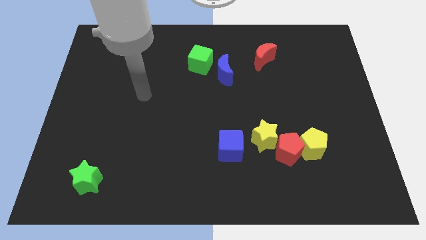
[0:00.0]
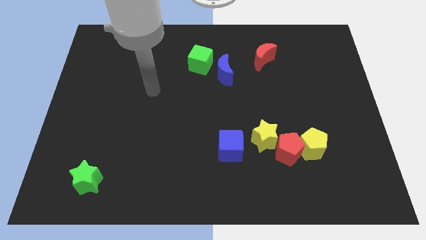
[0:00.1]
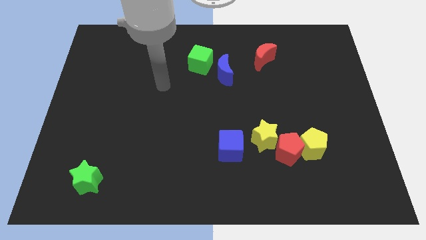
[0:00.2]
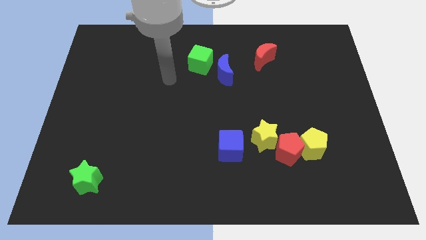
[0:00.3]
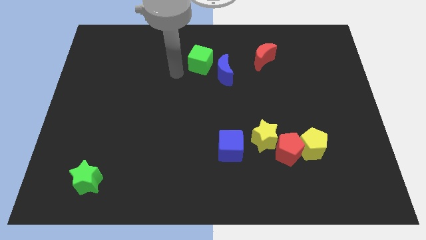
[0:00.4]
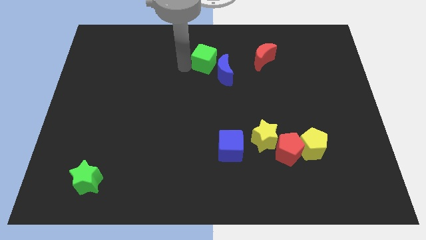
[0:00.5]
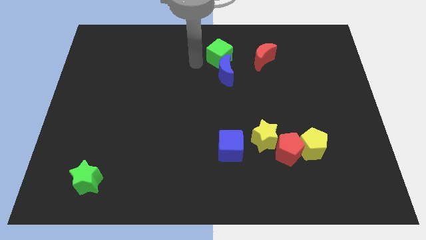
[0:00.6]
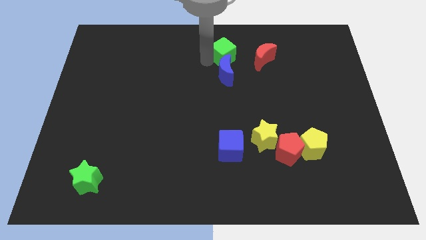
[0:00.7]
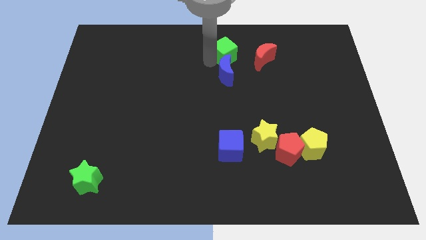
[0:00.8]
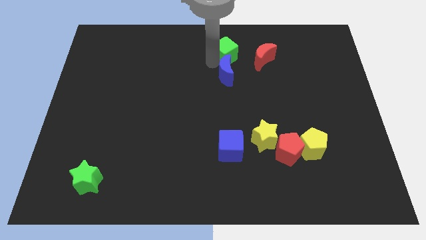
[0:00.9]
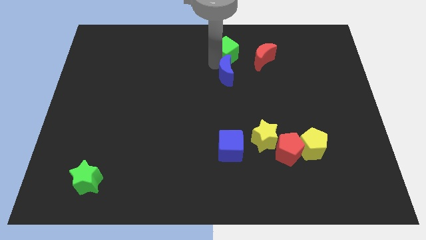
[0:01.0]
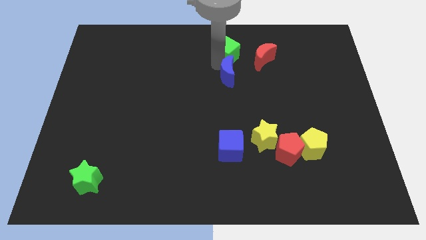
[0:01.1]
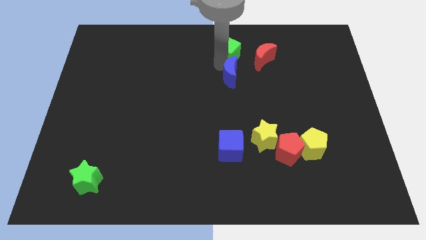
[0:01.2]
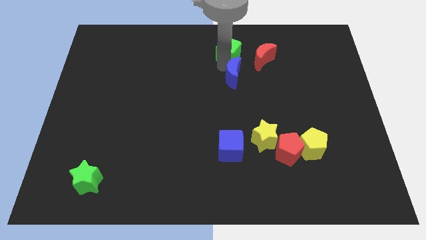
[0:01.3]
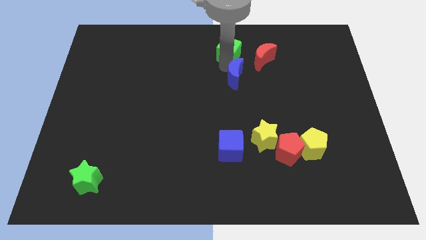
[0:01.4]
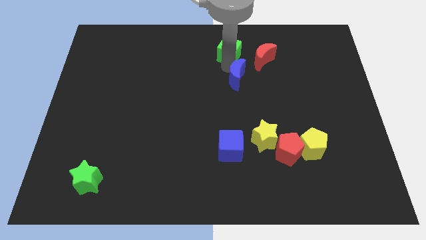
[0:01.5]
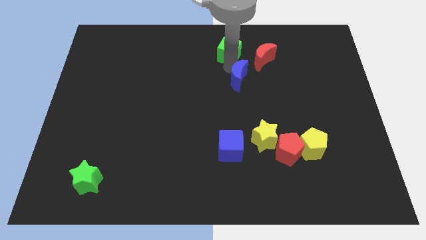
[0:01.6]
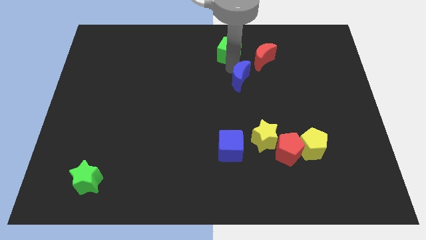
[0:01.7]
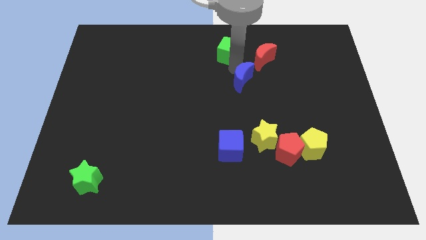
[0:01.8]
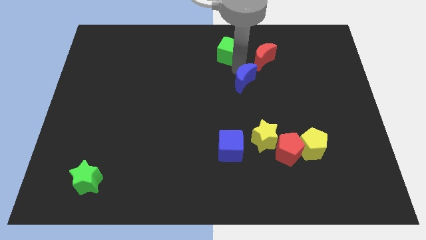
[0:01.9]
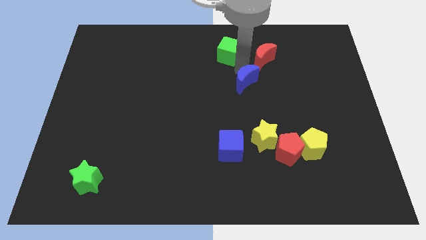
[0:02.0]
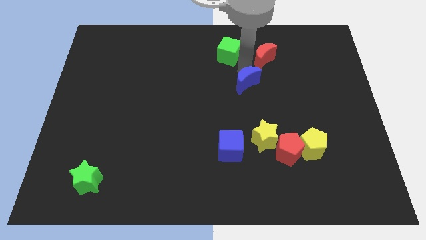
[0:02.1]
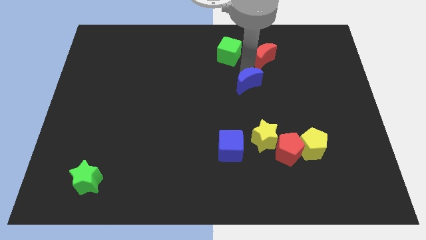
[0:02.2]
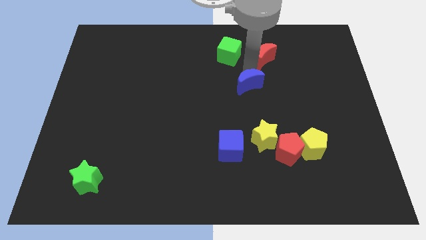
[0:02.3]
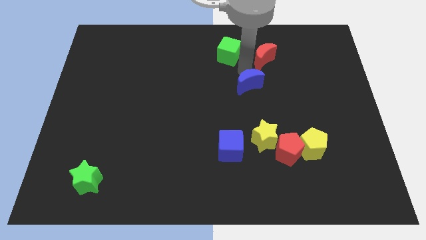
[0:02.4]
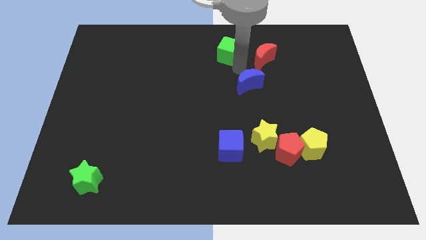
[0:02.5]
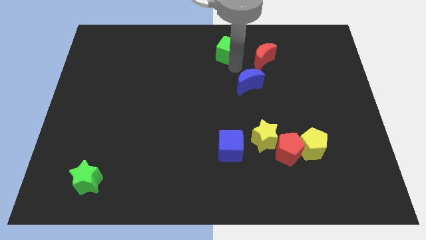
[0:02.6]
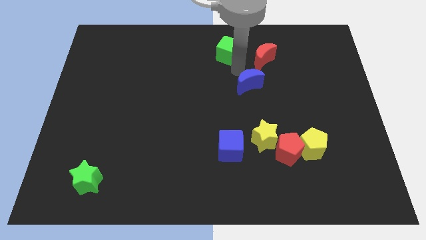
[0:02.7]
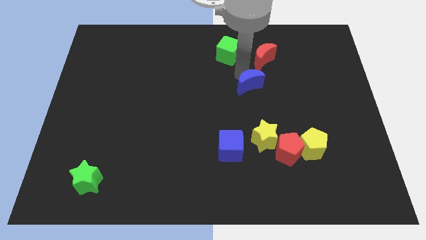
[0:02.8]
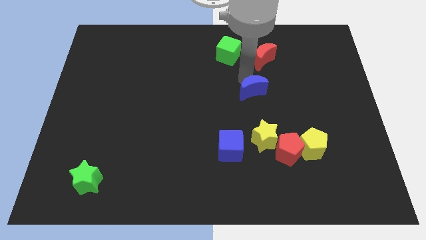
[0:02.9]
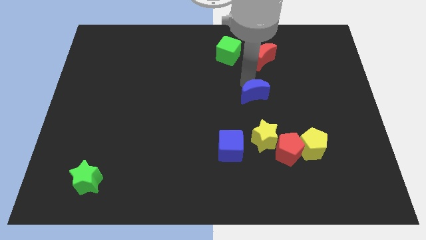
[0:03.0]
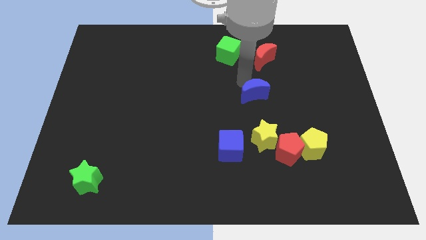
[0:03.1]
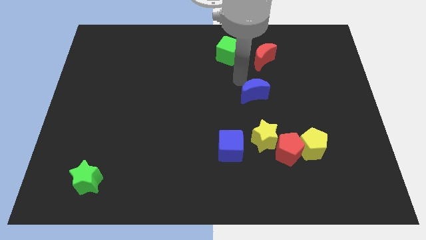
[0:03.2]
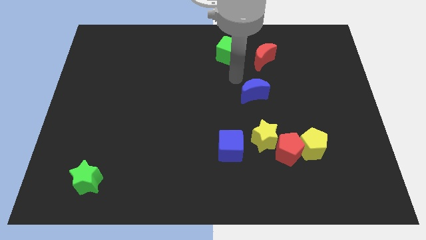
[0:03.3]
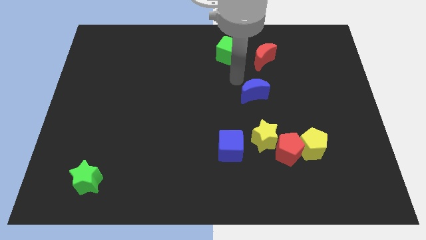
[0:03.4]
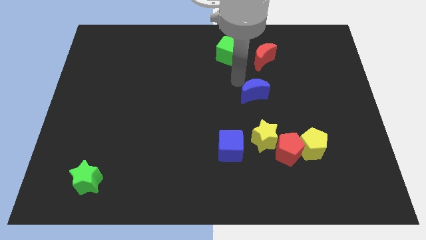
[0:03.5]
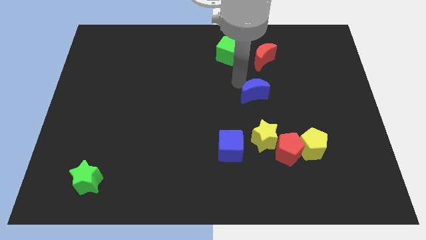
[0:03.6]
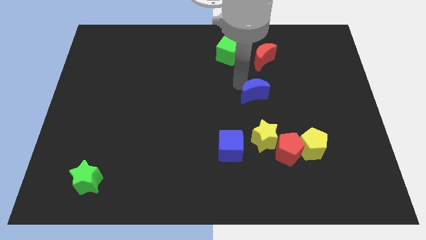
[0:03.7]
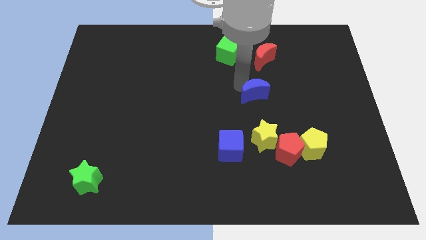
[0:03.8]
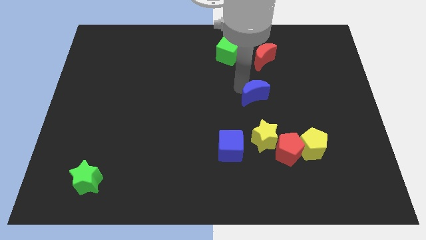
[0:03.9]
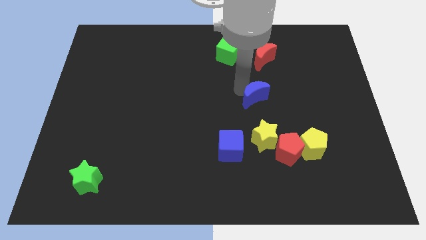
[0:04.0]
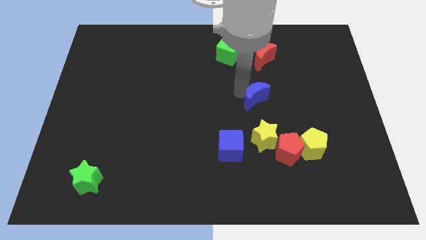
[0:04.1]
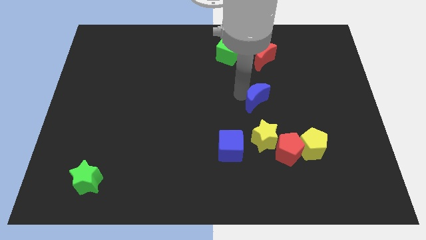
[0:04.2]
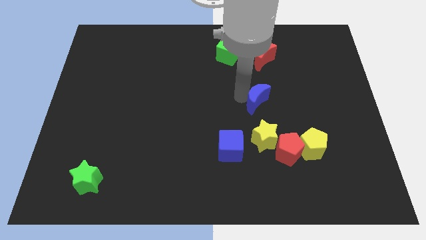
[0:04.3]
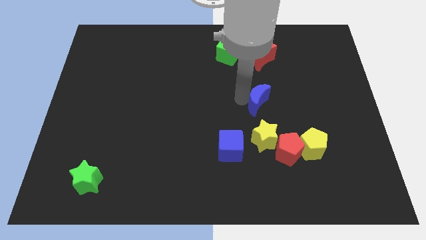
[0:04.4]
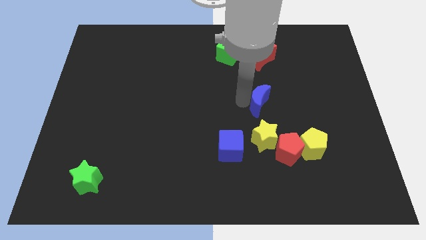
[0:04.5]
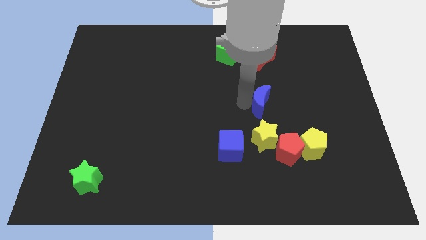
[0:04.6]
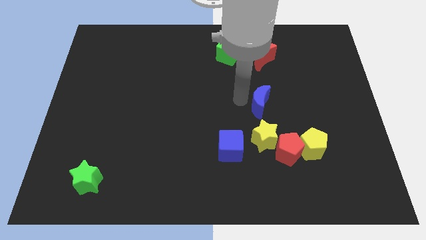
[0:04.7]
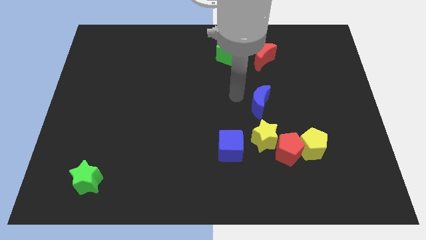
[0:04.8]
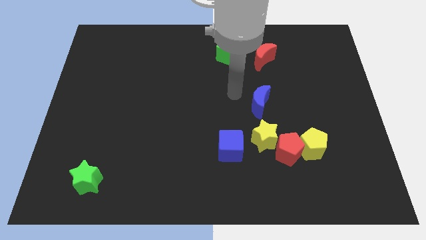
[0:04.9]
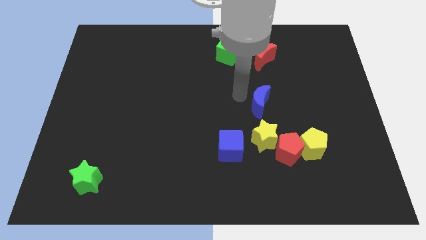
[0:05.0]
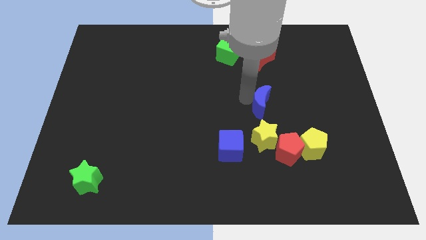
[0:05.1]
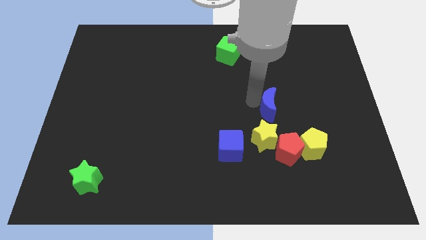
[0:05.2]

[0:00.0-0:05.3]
move the blue moon to the top side of the red pentagon

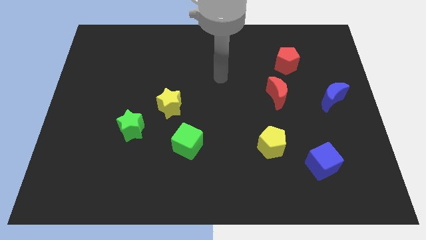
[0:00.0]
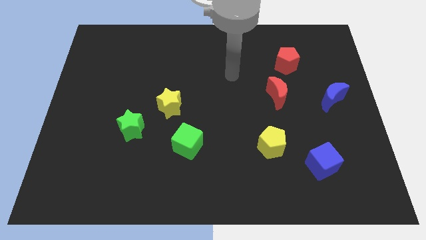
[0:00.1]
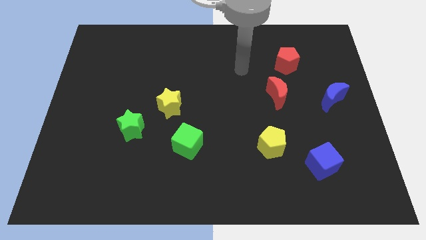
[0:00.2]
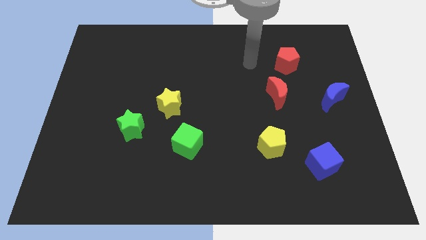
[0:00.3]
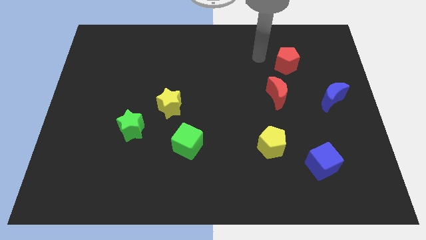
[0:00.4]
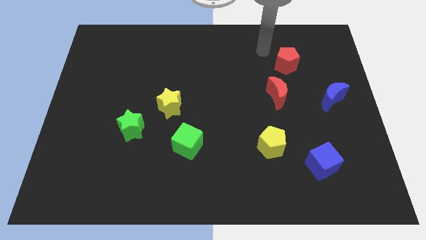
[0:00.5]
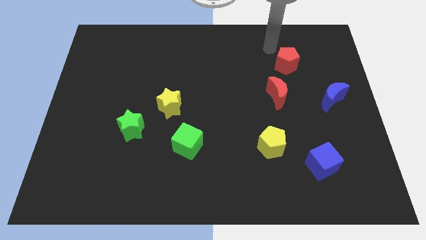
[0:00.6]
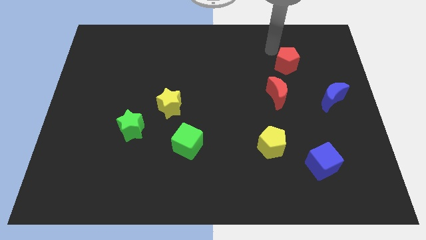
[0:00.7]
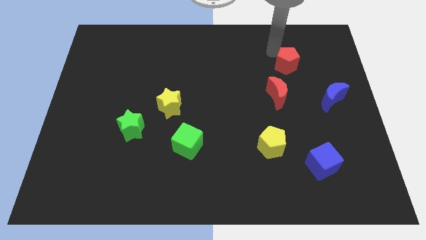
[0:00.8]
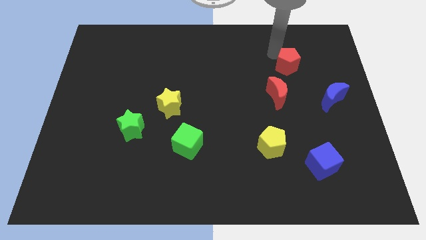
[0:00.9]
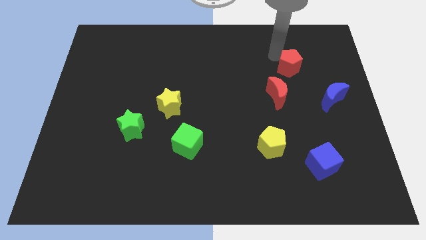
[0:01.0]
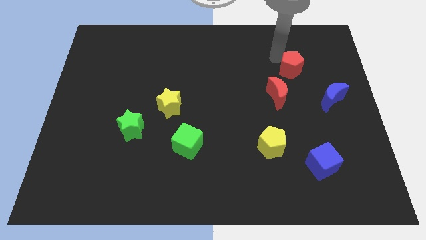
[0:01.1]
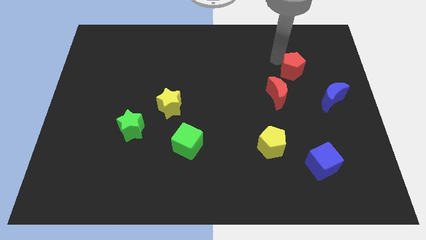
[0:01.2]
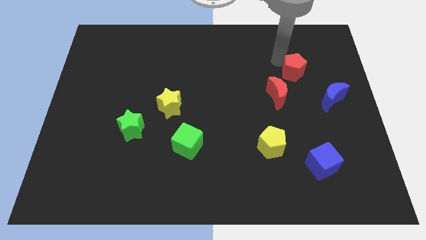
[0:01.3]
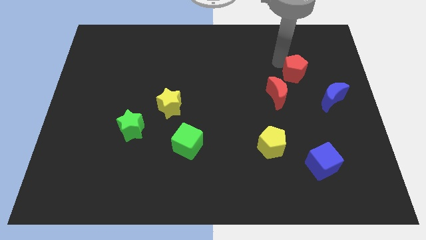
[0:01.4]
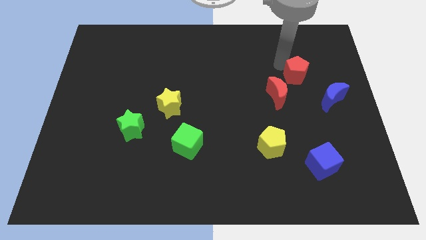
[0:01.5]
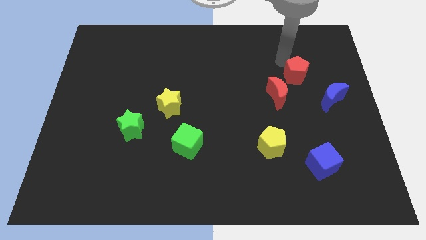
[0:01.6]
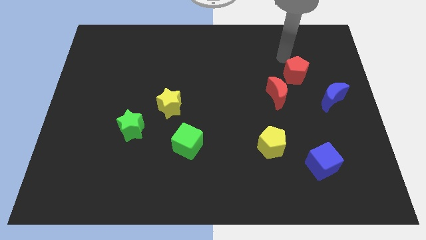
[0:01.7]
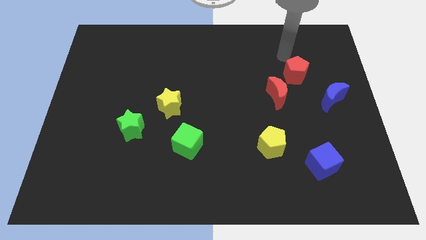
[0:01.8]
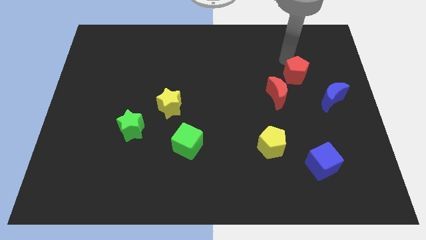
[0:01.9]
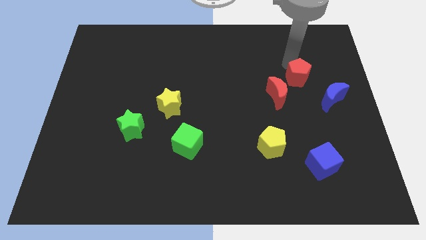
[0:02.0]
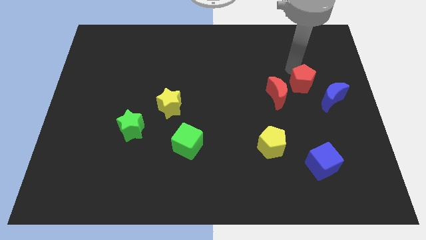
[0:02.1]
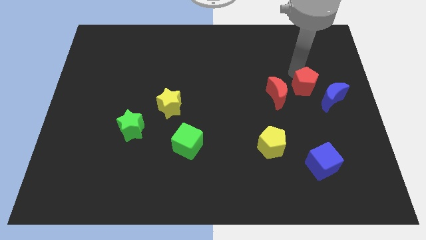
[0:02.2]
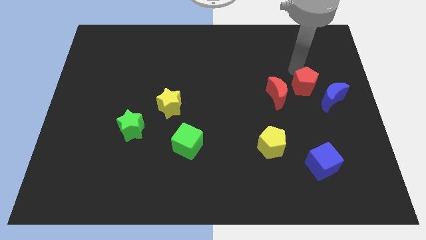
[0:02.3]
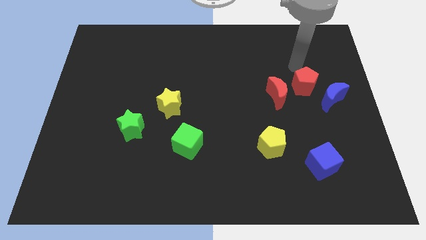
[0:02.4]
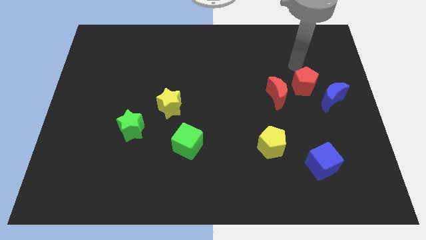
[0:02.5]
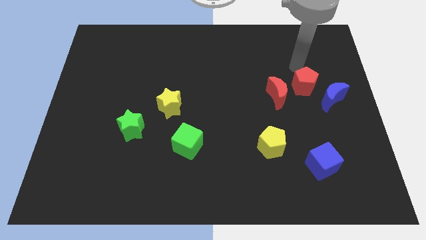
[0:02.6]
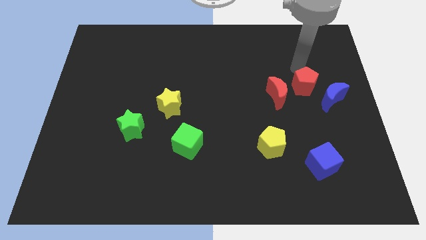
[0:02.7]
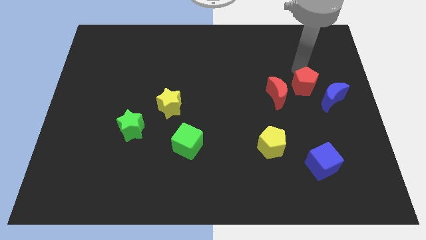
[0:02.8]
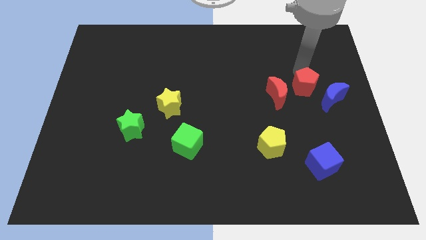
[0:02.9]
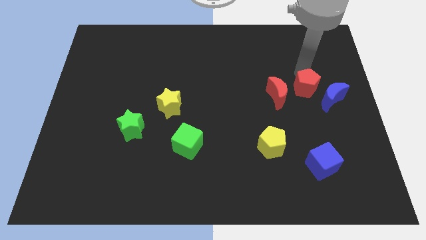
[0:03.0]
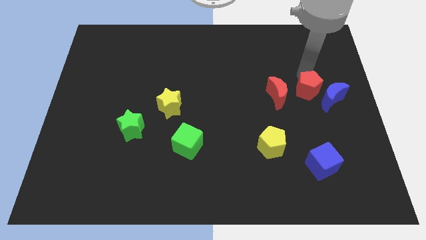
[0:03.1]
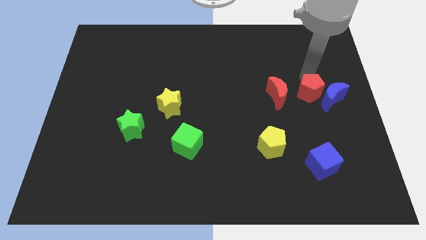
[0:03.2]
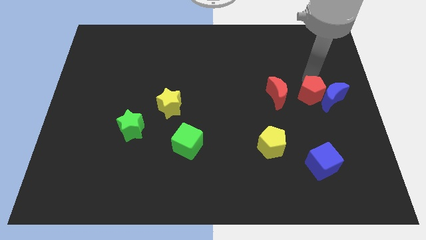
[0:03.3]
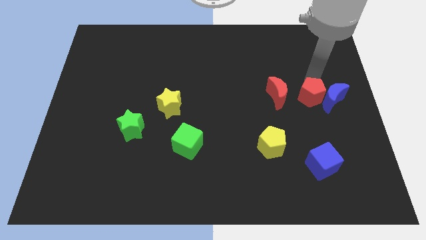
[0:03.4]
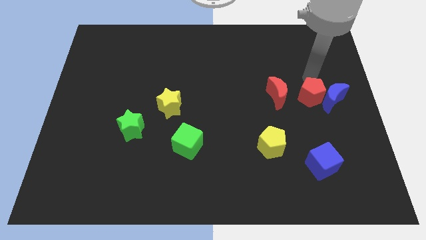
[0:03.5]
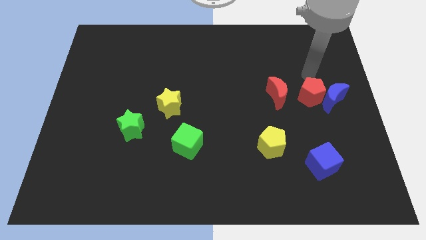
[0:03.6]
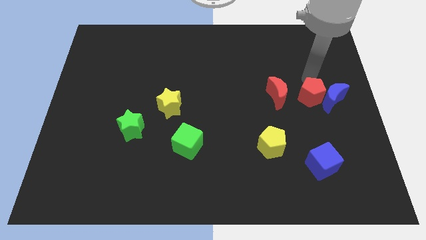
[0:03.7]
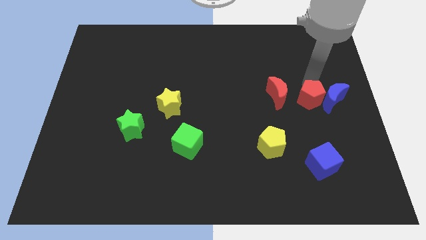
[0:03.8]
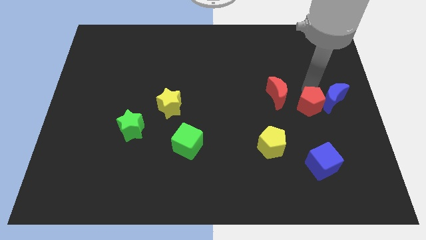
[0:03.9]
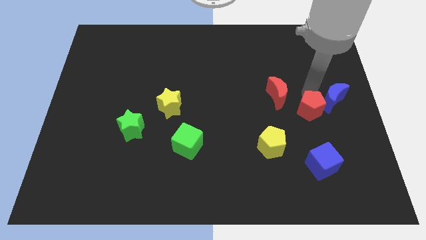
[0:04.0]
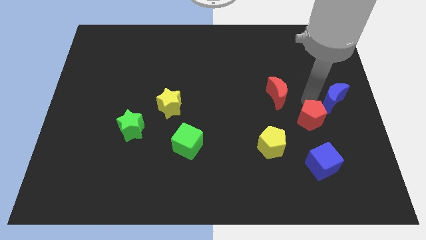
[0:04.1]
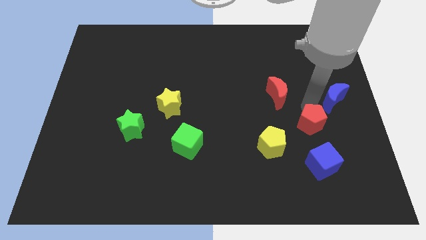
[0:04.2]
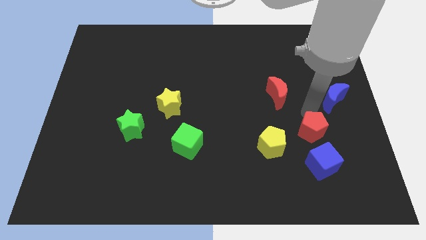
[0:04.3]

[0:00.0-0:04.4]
put the red pentagon to the right side of the yellow pentagon
